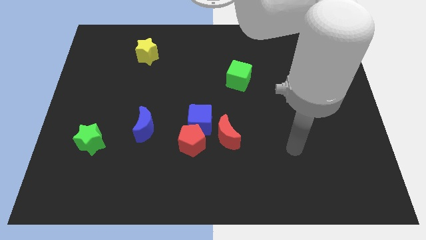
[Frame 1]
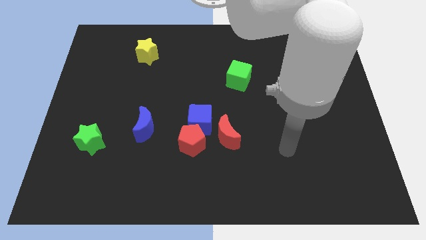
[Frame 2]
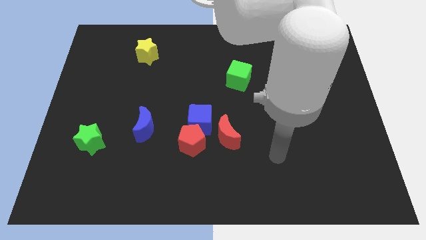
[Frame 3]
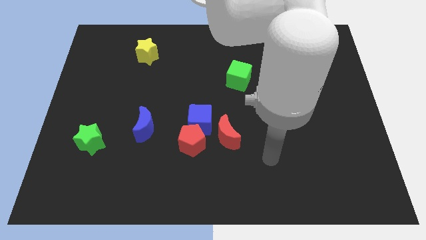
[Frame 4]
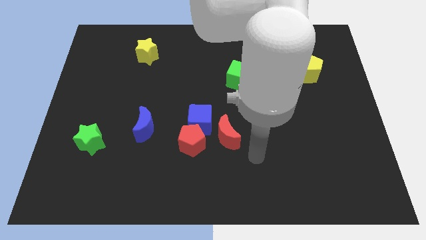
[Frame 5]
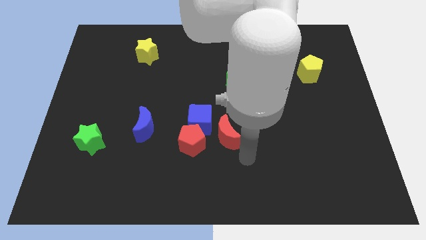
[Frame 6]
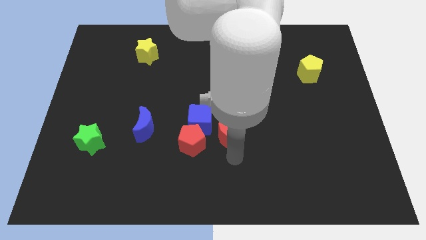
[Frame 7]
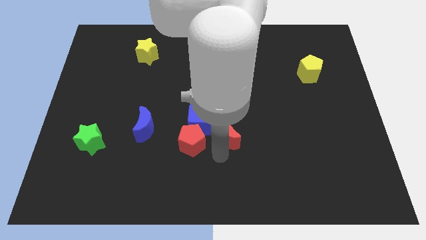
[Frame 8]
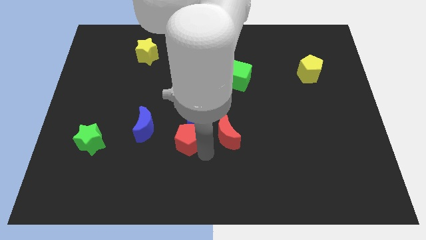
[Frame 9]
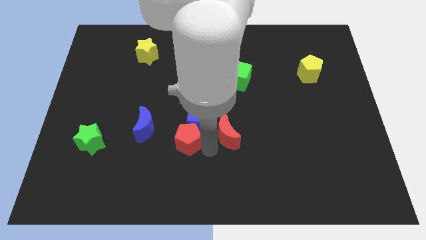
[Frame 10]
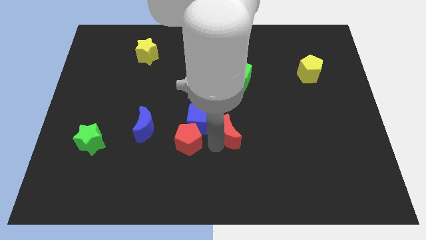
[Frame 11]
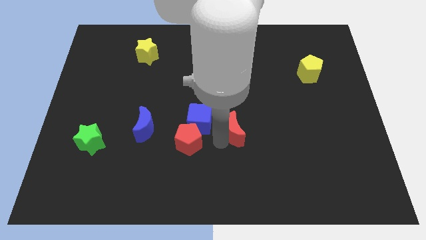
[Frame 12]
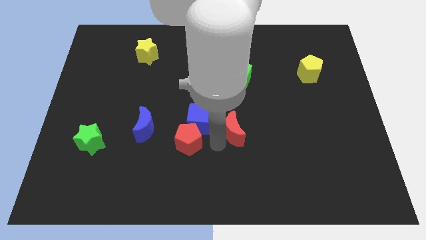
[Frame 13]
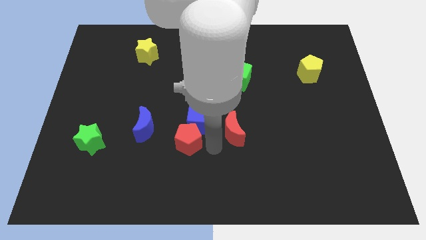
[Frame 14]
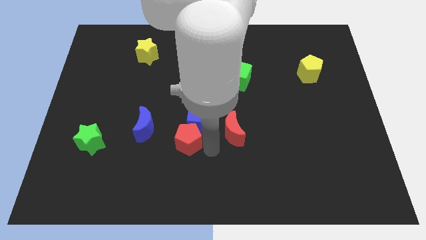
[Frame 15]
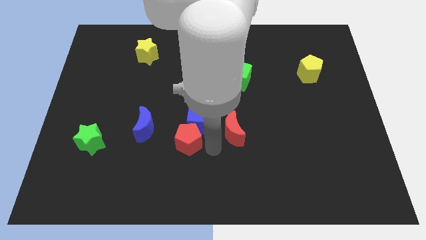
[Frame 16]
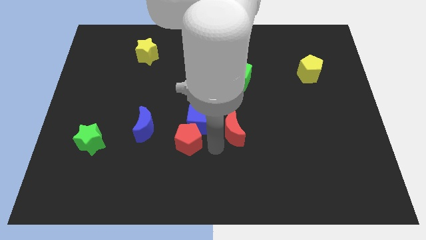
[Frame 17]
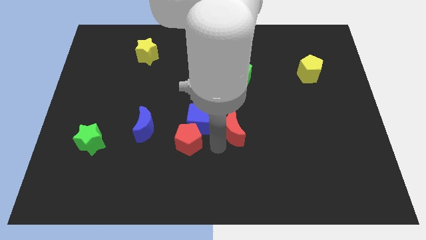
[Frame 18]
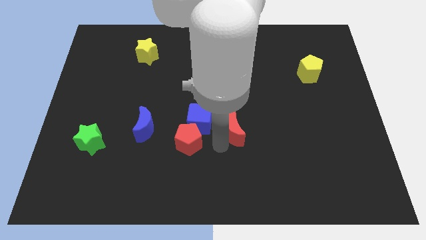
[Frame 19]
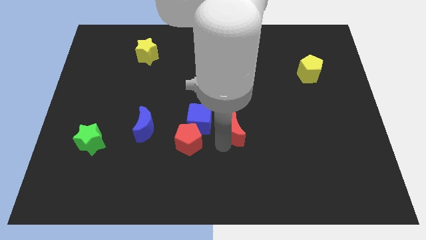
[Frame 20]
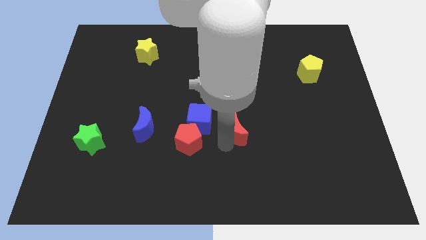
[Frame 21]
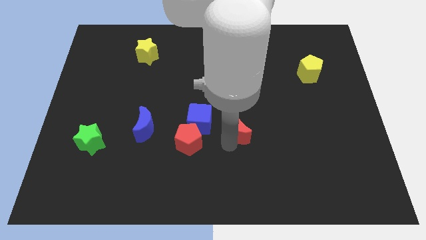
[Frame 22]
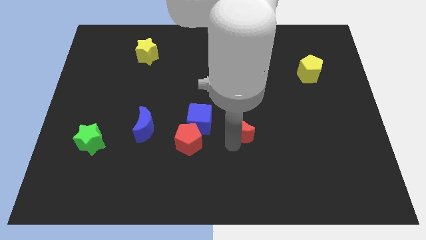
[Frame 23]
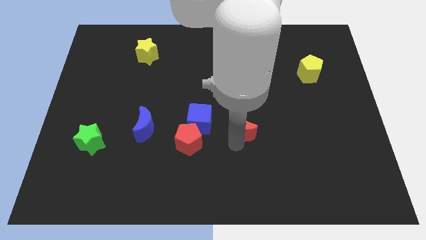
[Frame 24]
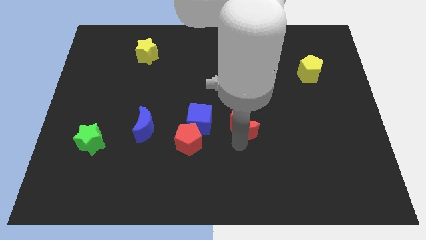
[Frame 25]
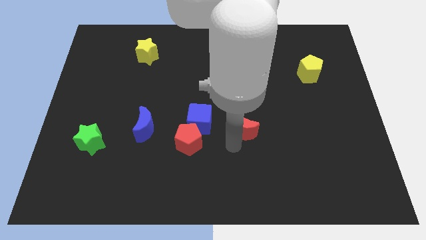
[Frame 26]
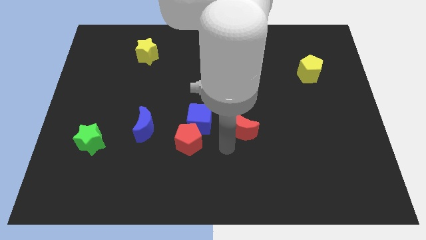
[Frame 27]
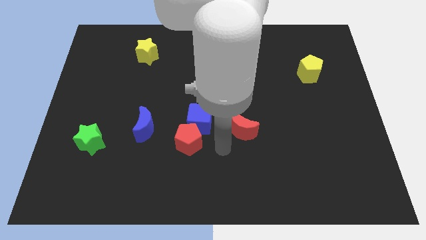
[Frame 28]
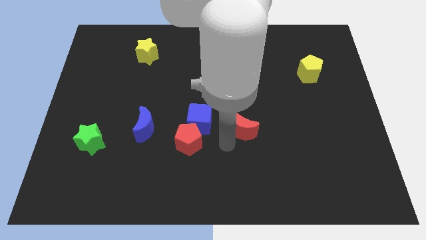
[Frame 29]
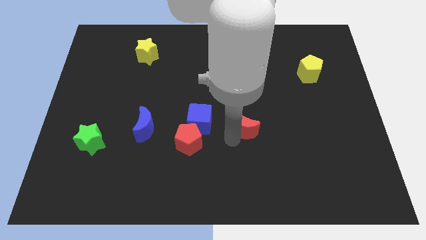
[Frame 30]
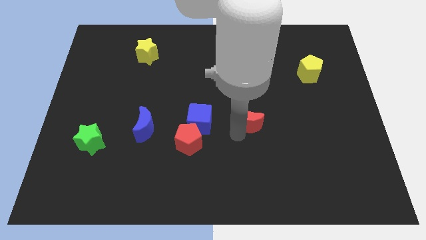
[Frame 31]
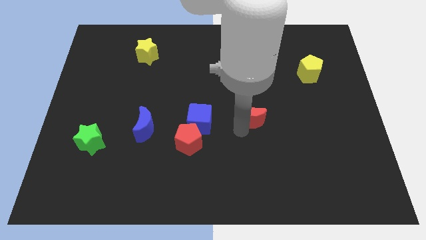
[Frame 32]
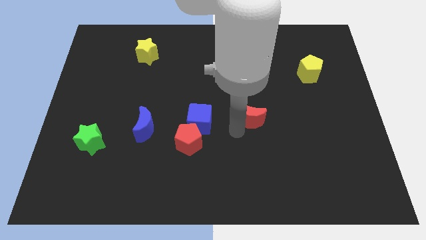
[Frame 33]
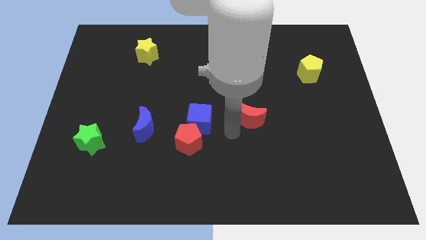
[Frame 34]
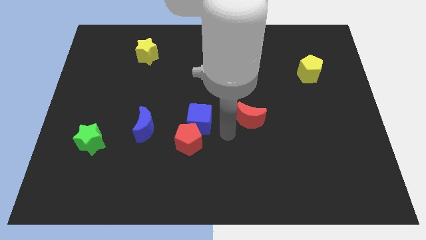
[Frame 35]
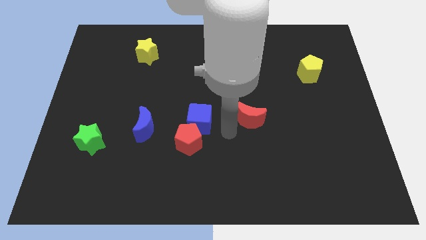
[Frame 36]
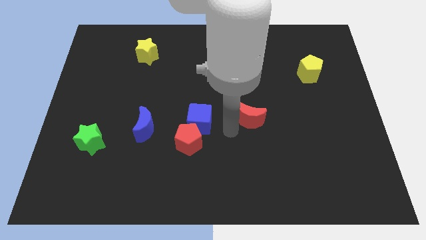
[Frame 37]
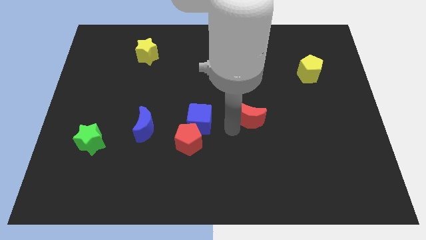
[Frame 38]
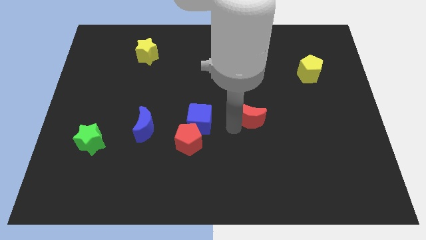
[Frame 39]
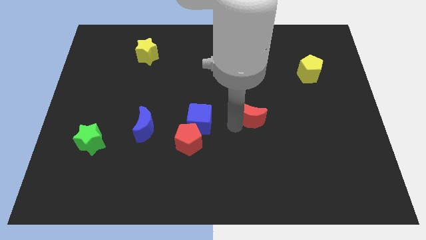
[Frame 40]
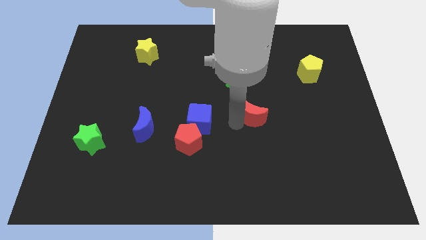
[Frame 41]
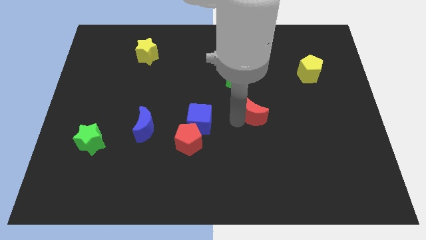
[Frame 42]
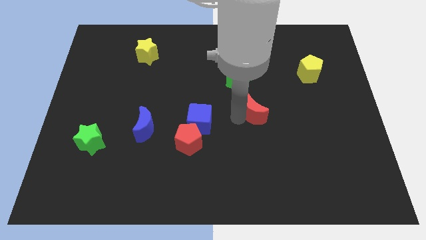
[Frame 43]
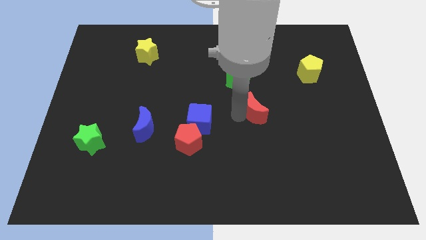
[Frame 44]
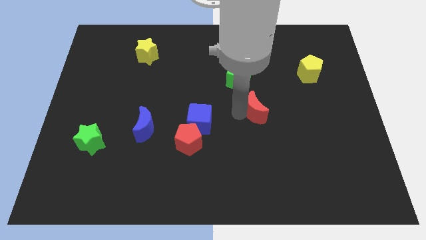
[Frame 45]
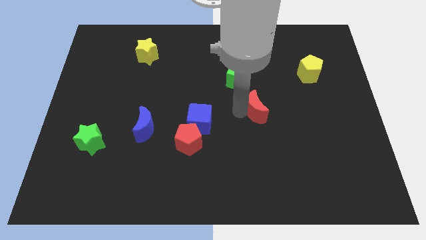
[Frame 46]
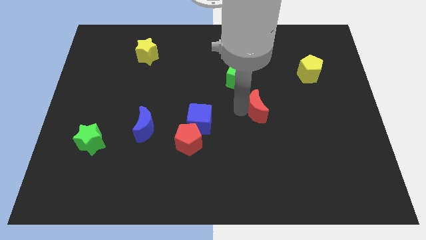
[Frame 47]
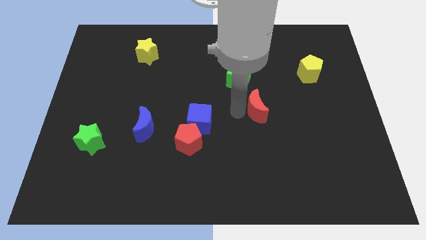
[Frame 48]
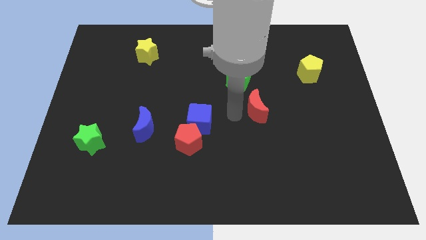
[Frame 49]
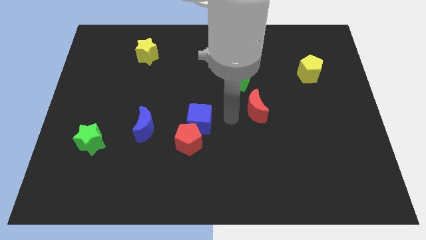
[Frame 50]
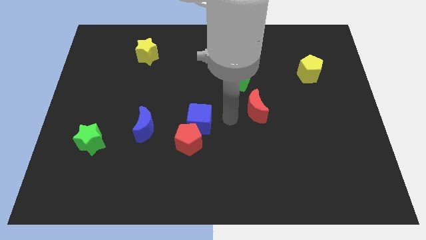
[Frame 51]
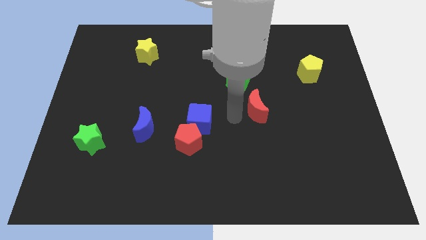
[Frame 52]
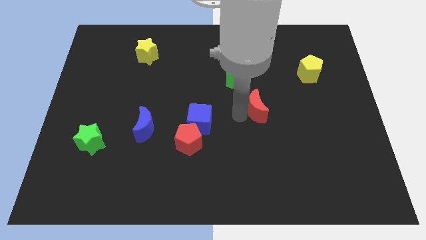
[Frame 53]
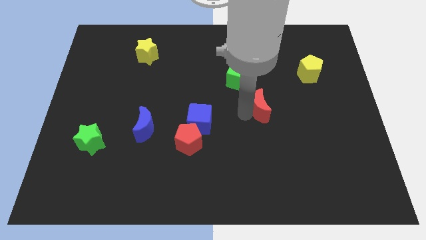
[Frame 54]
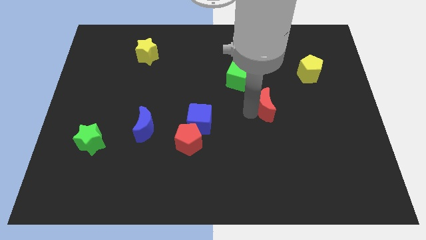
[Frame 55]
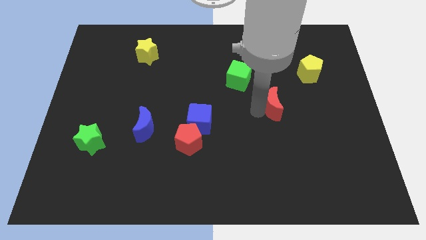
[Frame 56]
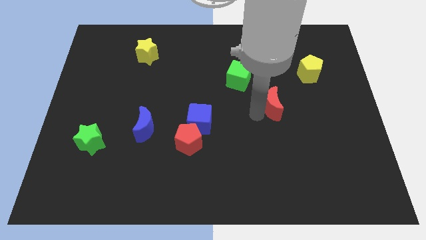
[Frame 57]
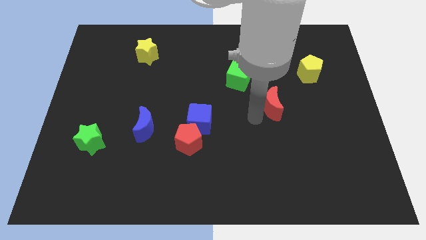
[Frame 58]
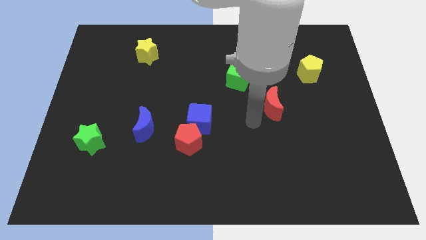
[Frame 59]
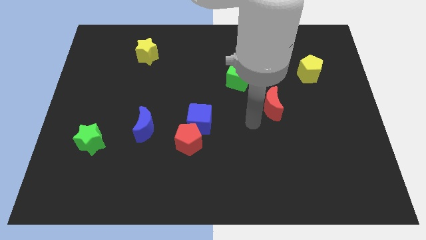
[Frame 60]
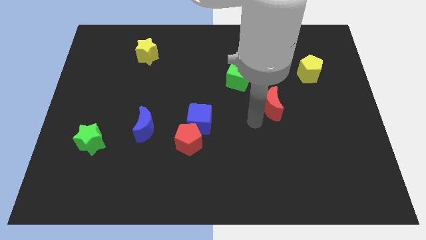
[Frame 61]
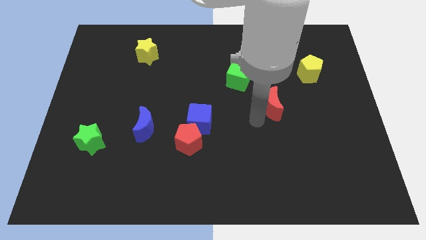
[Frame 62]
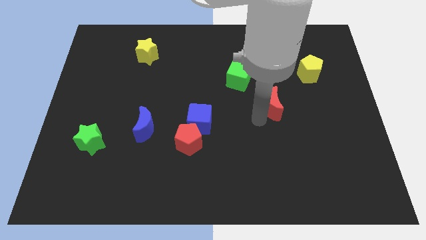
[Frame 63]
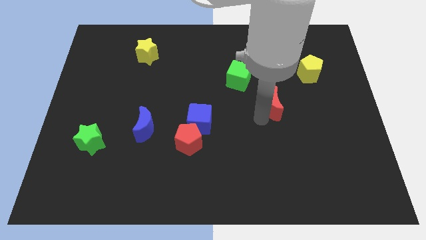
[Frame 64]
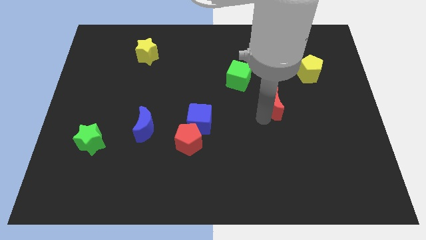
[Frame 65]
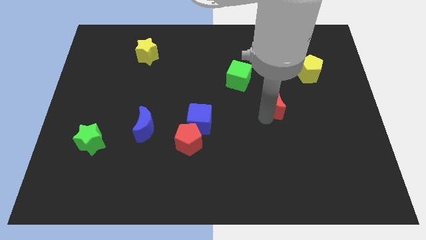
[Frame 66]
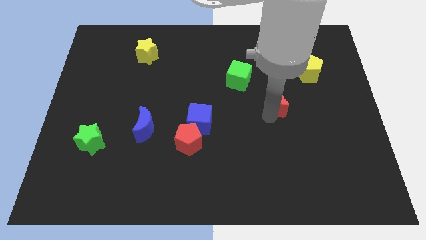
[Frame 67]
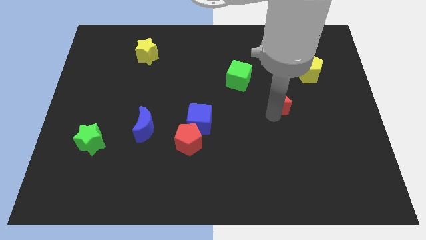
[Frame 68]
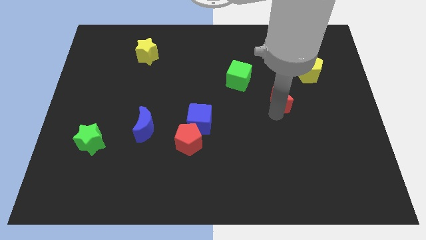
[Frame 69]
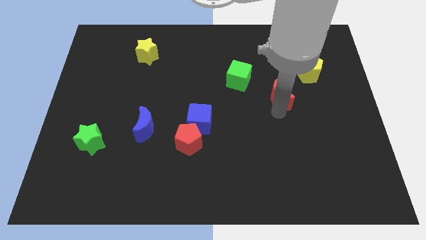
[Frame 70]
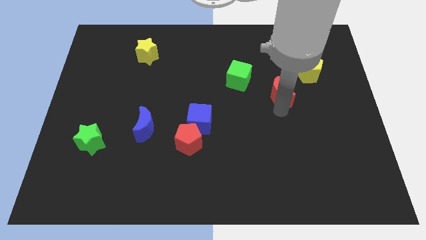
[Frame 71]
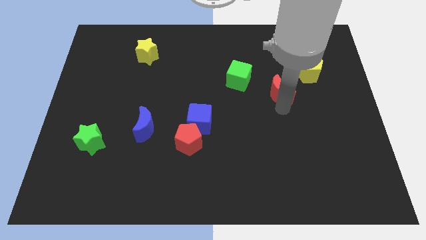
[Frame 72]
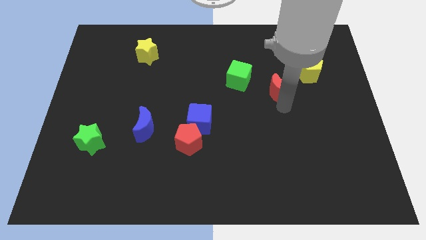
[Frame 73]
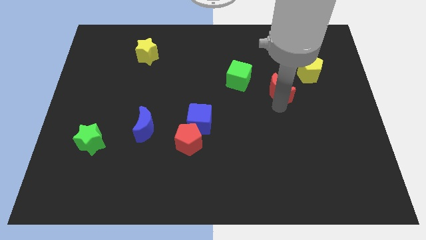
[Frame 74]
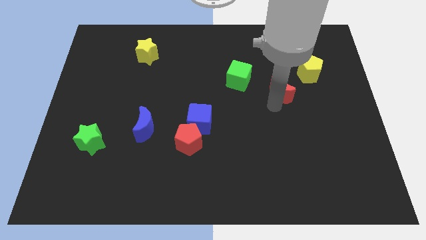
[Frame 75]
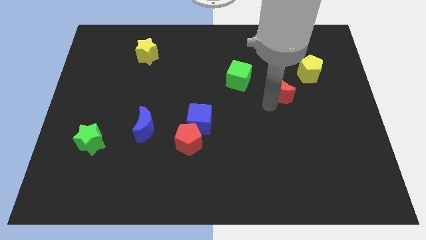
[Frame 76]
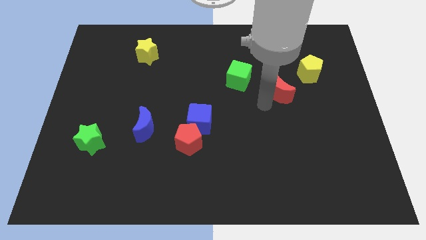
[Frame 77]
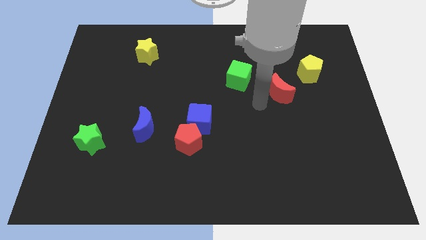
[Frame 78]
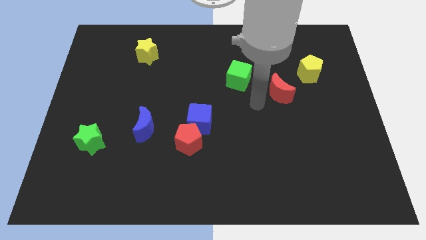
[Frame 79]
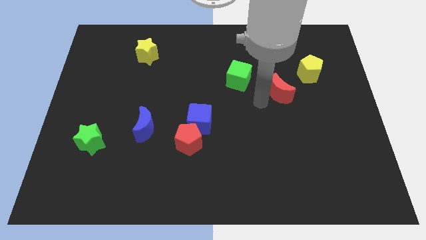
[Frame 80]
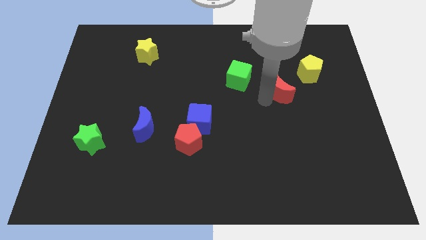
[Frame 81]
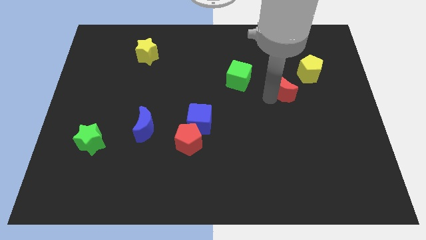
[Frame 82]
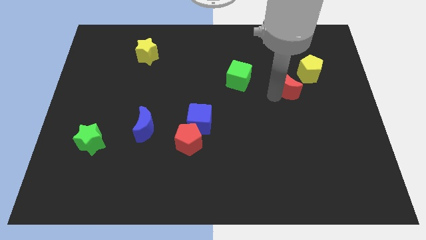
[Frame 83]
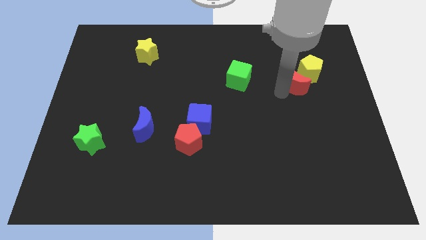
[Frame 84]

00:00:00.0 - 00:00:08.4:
slide the red moon close to the yellow pentagon
